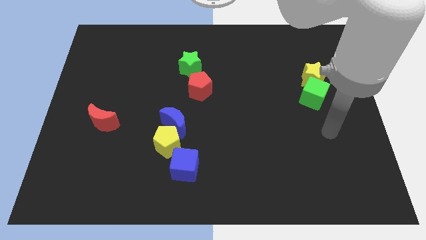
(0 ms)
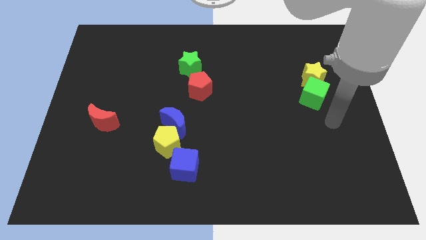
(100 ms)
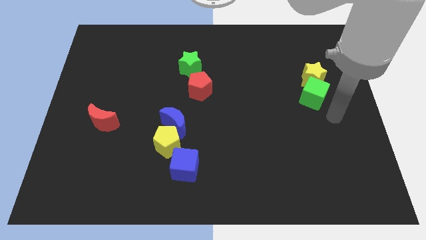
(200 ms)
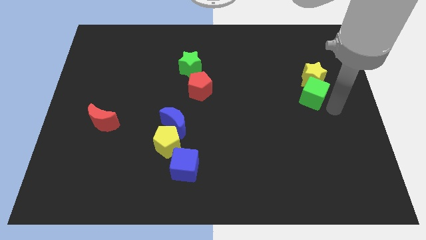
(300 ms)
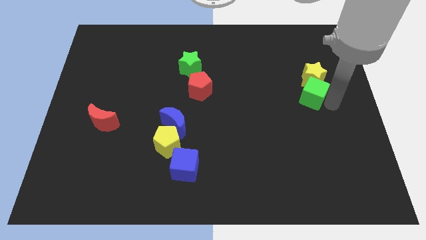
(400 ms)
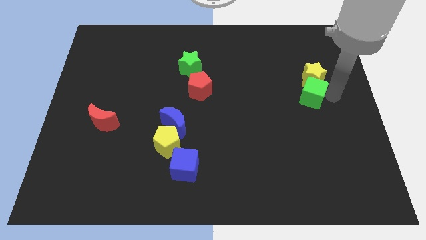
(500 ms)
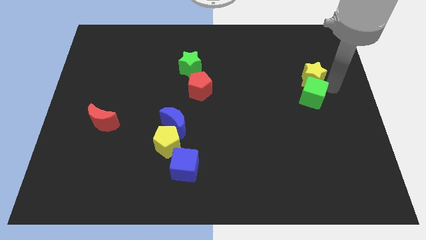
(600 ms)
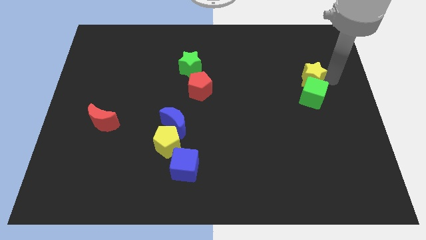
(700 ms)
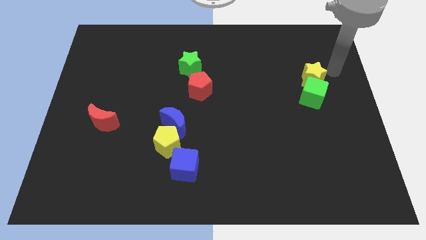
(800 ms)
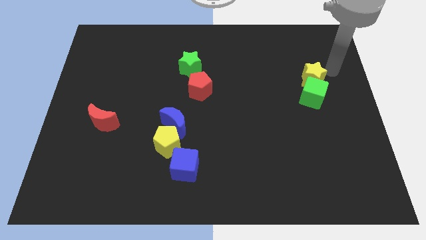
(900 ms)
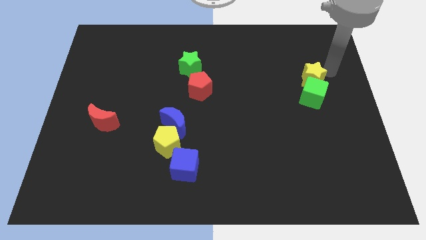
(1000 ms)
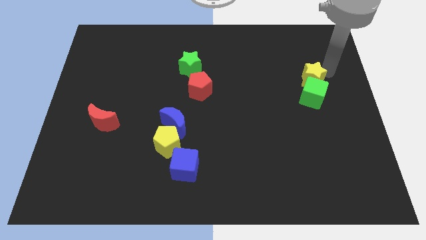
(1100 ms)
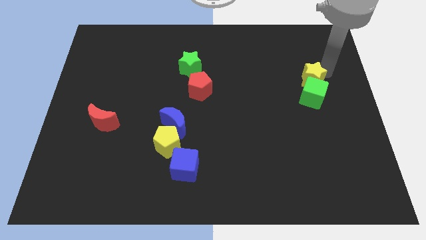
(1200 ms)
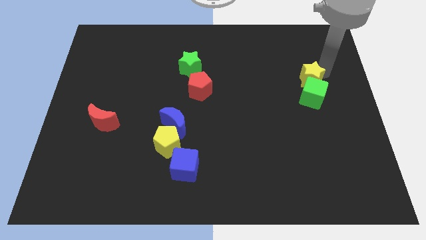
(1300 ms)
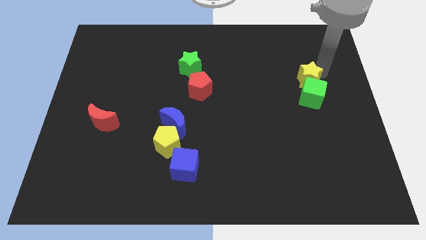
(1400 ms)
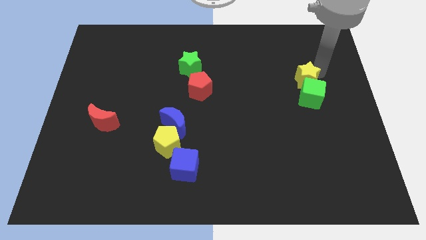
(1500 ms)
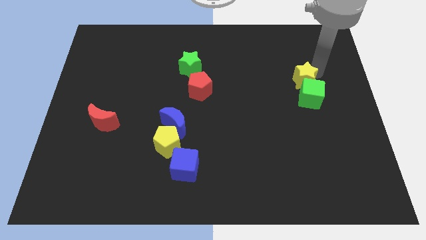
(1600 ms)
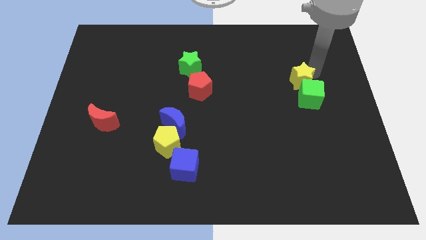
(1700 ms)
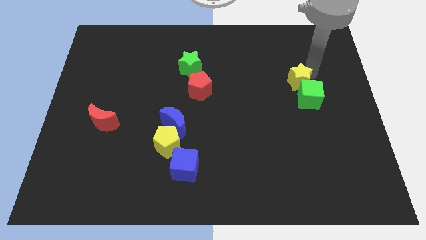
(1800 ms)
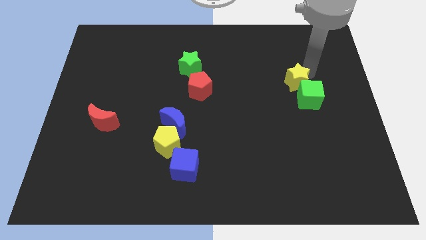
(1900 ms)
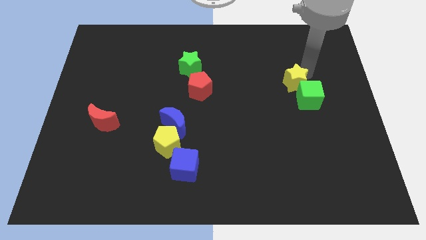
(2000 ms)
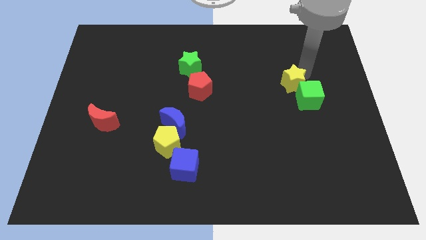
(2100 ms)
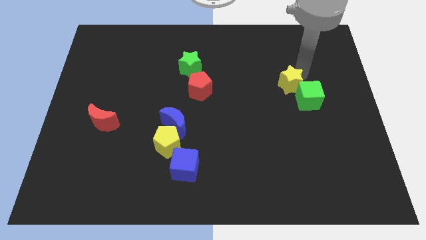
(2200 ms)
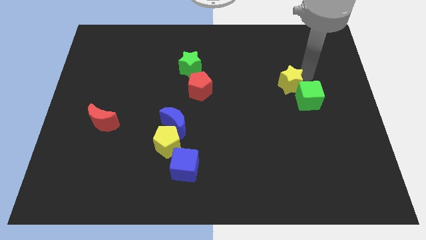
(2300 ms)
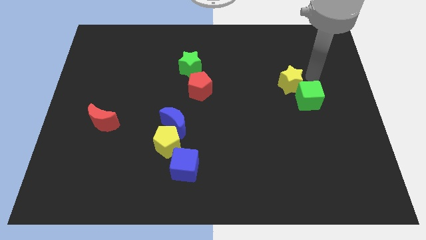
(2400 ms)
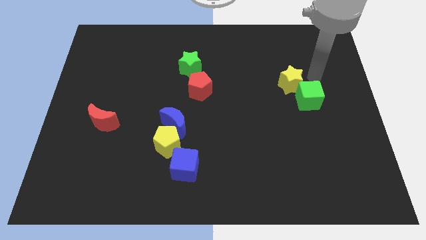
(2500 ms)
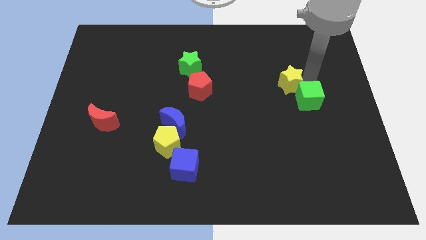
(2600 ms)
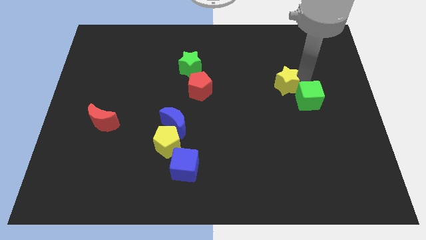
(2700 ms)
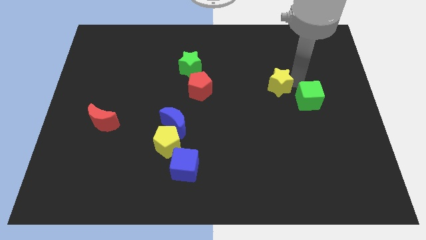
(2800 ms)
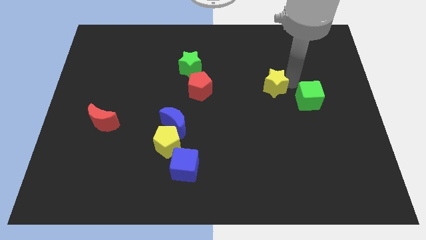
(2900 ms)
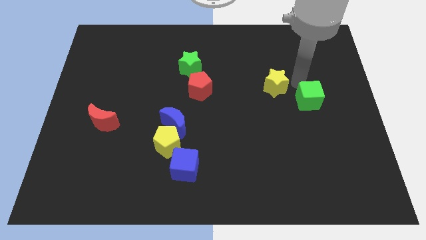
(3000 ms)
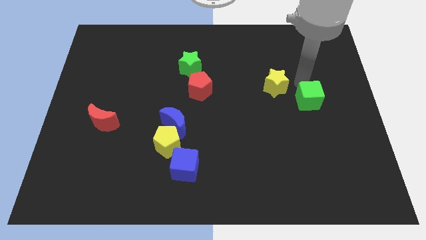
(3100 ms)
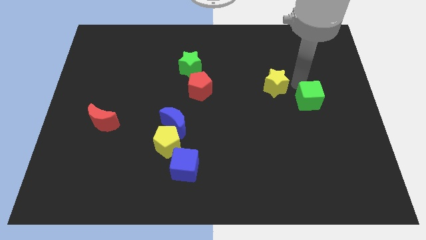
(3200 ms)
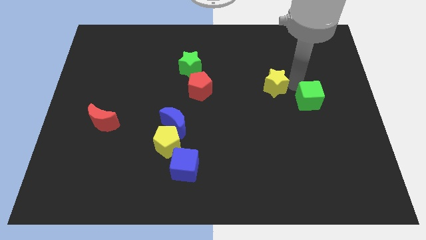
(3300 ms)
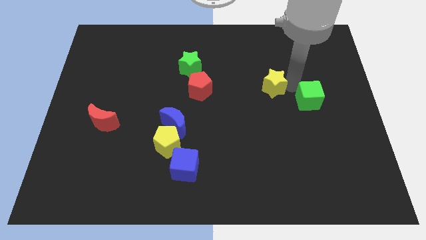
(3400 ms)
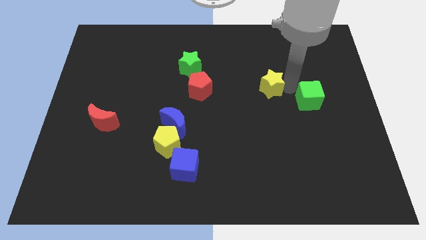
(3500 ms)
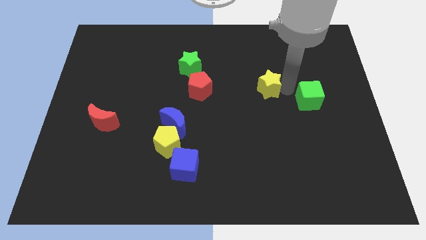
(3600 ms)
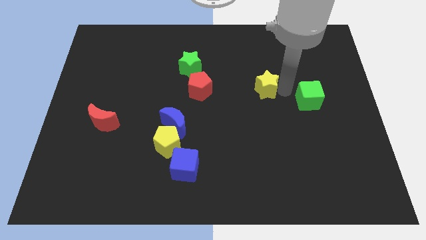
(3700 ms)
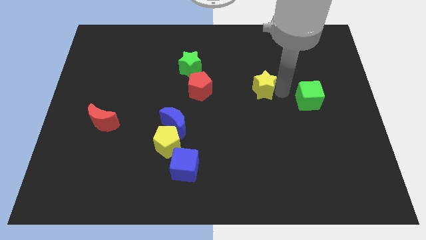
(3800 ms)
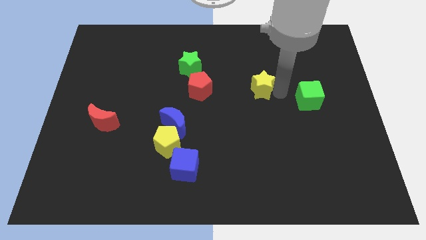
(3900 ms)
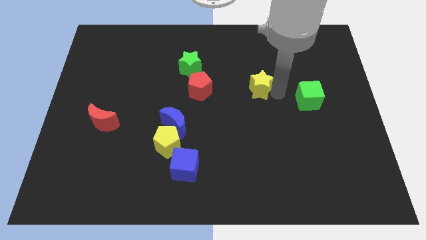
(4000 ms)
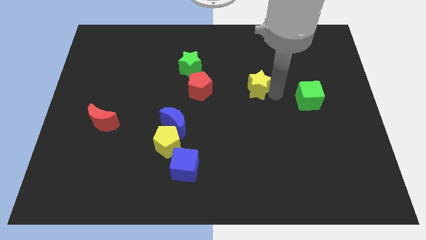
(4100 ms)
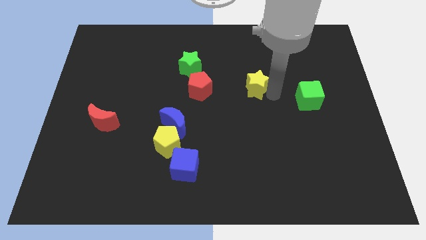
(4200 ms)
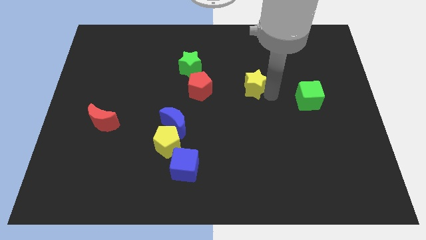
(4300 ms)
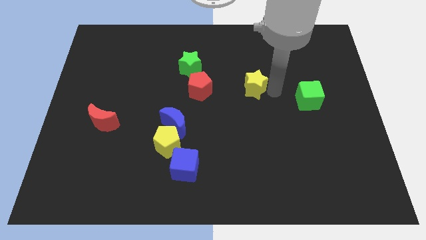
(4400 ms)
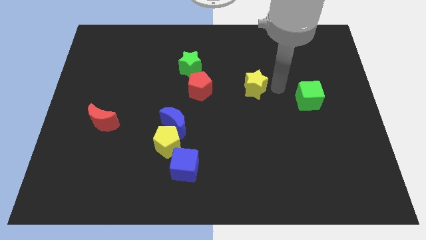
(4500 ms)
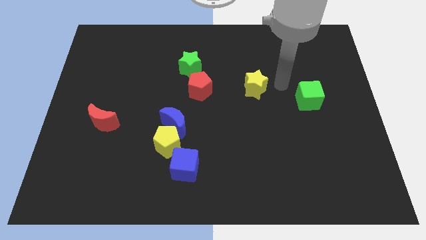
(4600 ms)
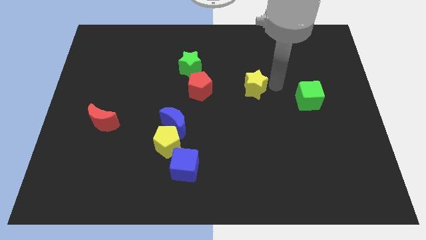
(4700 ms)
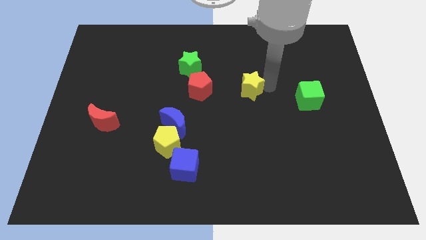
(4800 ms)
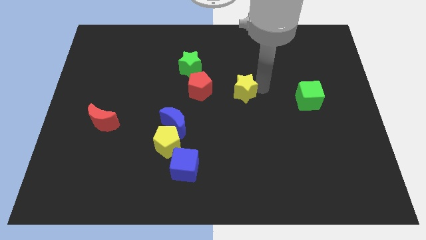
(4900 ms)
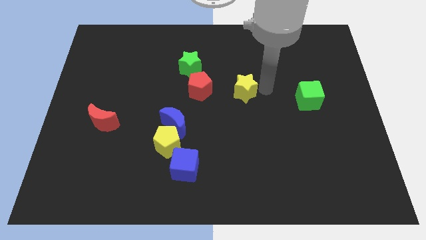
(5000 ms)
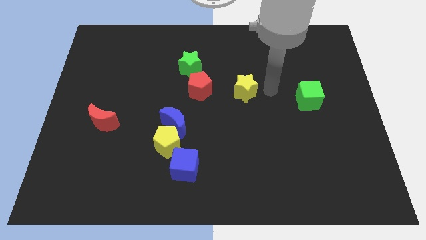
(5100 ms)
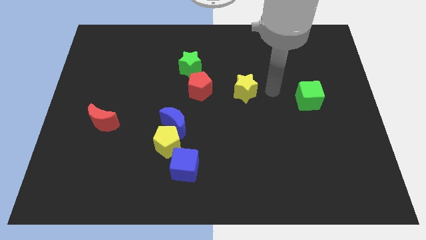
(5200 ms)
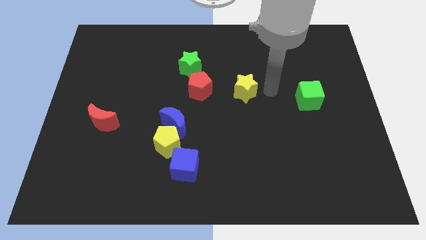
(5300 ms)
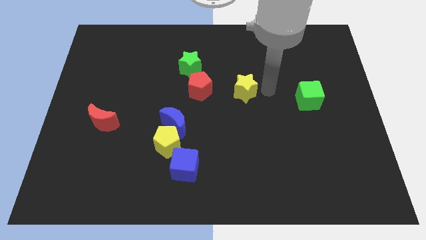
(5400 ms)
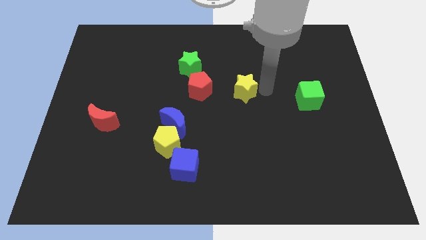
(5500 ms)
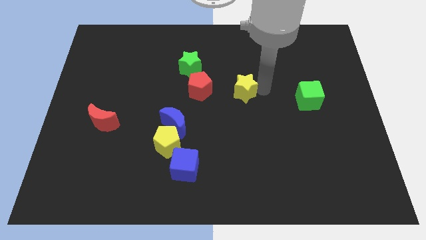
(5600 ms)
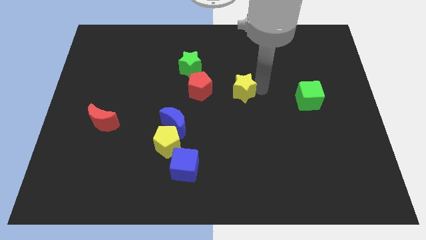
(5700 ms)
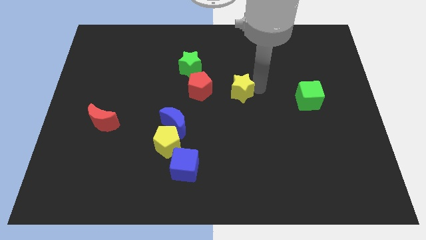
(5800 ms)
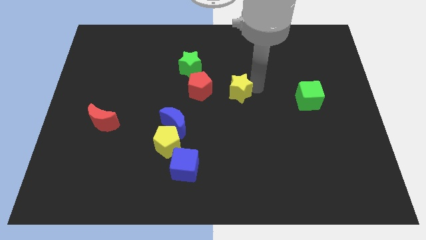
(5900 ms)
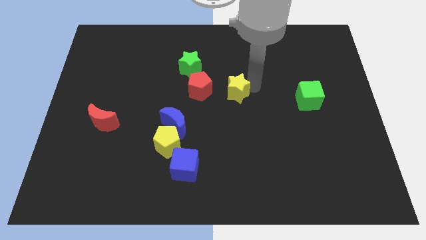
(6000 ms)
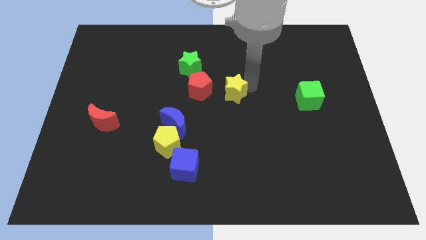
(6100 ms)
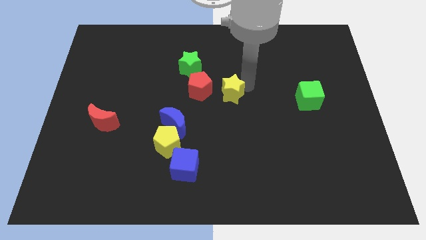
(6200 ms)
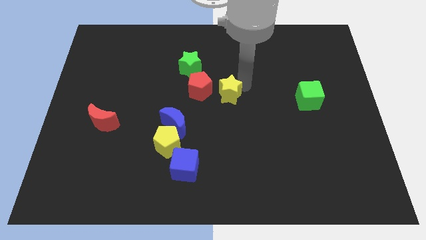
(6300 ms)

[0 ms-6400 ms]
push the yellow star left

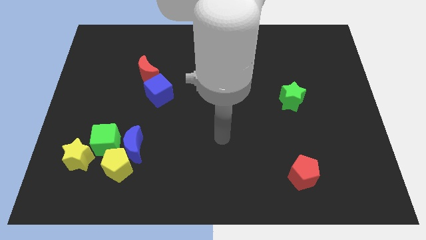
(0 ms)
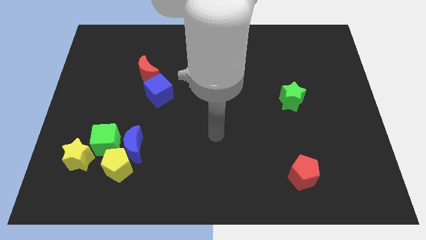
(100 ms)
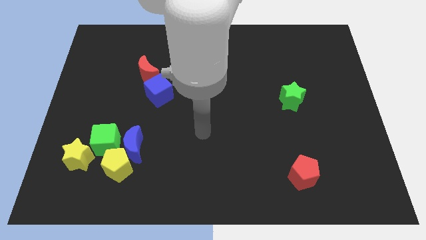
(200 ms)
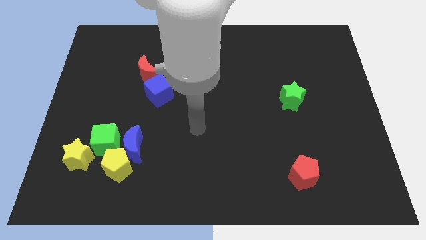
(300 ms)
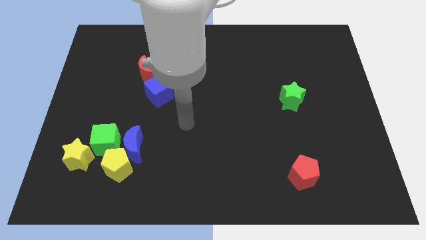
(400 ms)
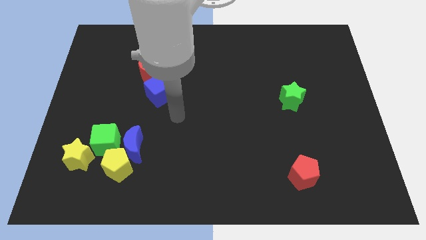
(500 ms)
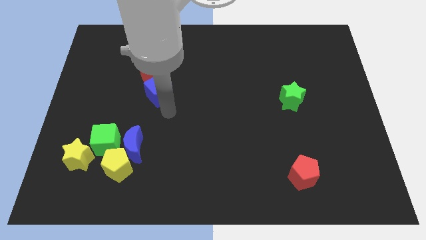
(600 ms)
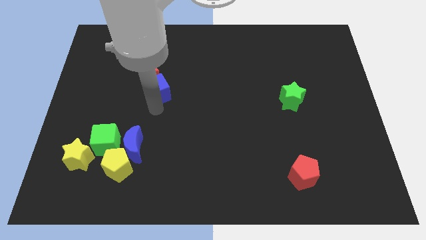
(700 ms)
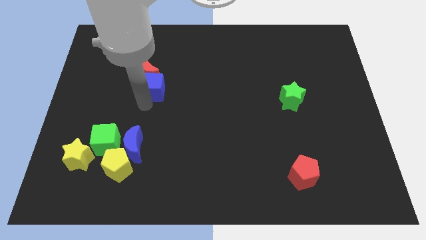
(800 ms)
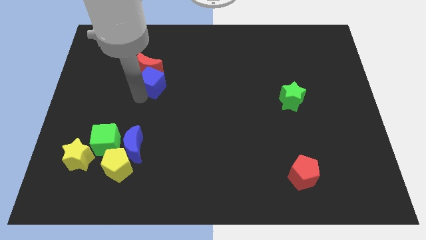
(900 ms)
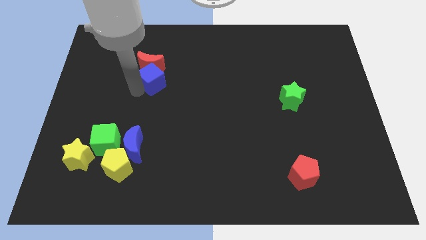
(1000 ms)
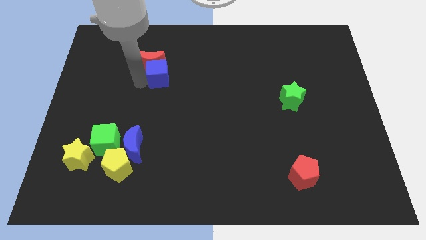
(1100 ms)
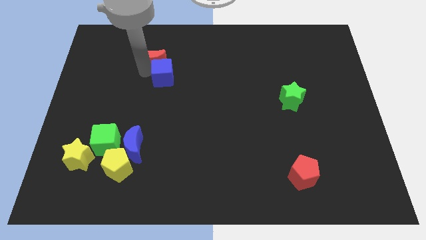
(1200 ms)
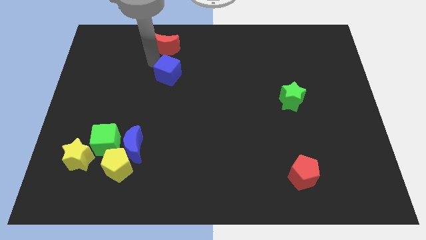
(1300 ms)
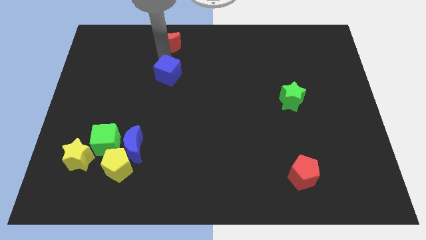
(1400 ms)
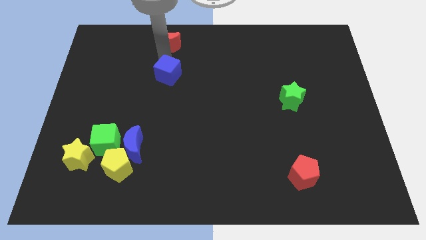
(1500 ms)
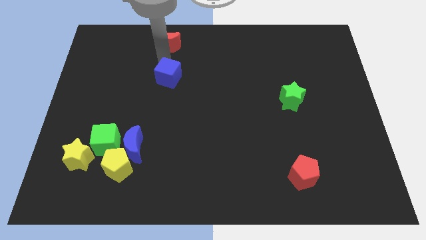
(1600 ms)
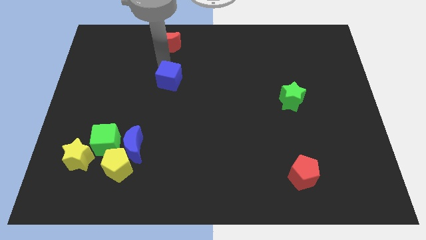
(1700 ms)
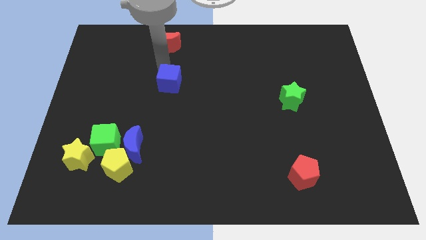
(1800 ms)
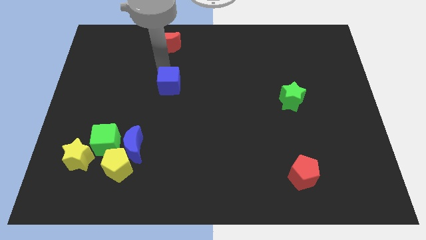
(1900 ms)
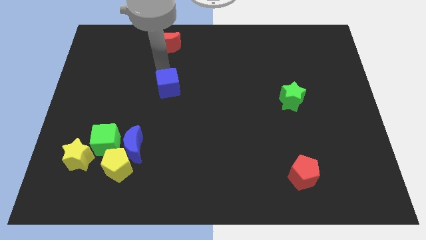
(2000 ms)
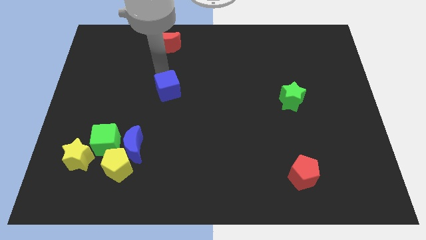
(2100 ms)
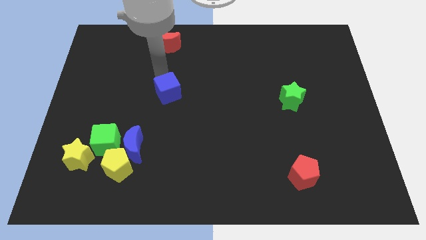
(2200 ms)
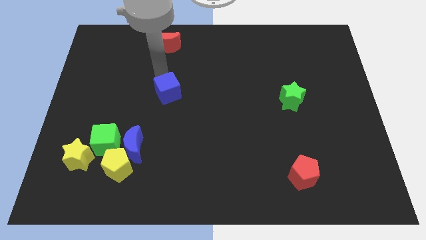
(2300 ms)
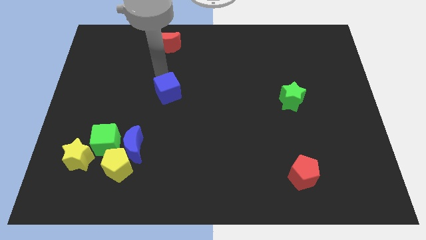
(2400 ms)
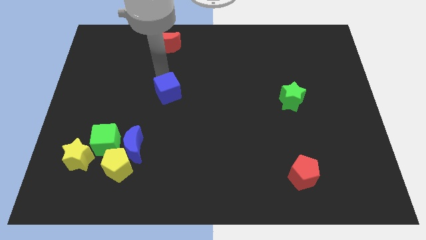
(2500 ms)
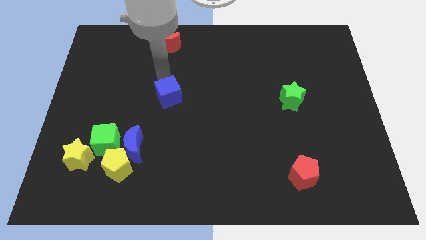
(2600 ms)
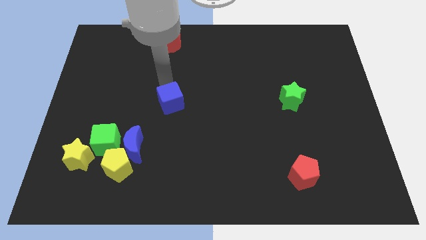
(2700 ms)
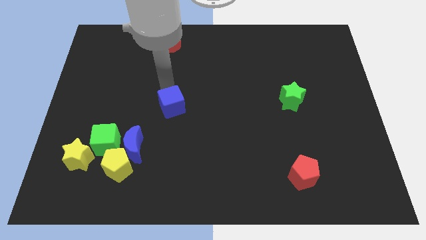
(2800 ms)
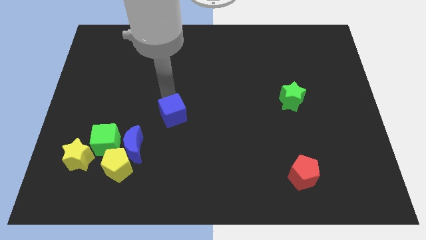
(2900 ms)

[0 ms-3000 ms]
move the blue cube diagonally downwards and to the right a bit
